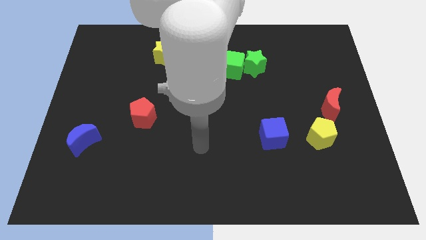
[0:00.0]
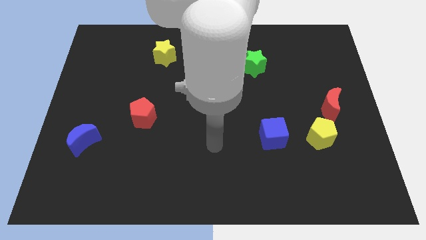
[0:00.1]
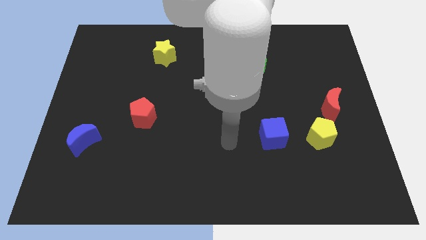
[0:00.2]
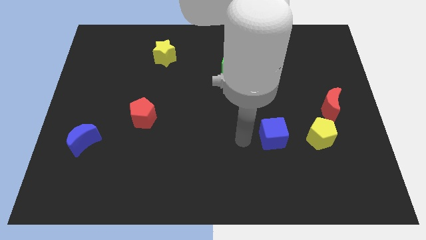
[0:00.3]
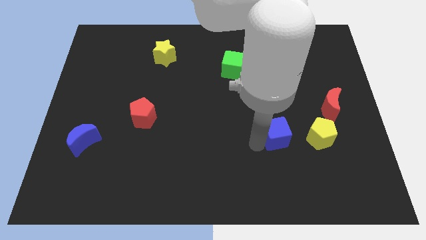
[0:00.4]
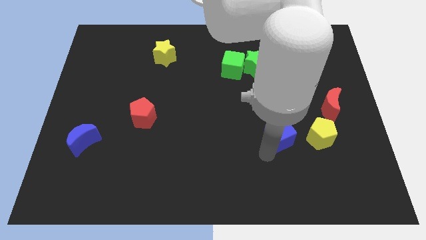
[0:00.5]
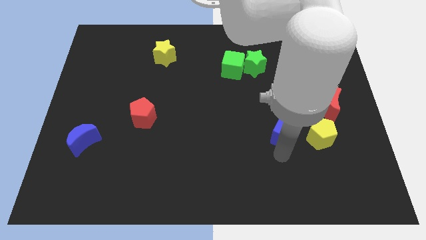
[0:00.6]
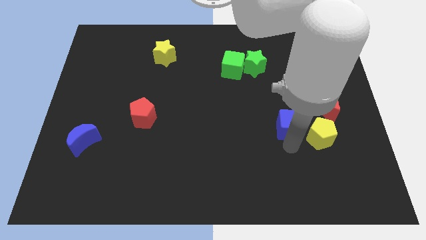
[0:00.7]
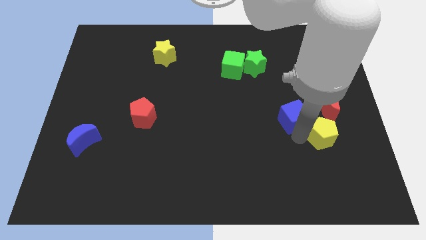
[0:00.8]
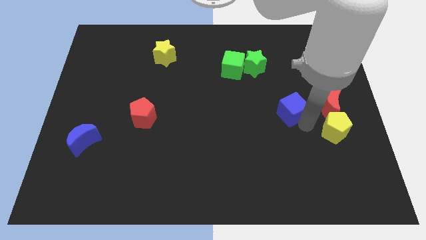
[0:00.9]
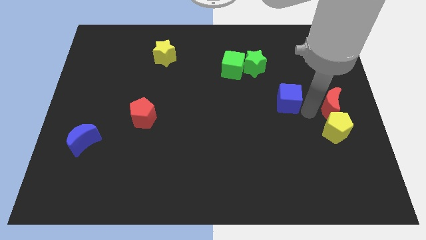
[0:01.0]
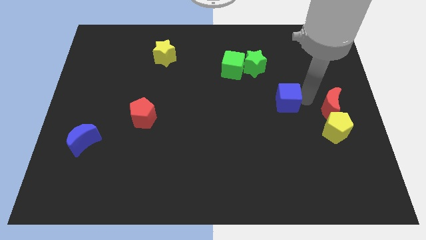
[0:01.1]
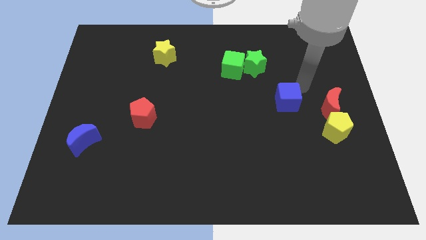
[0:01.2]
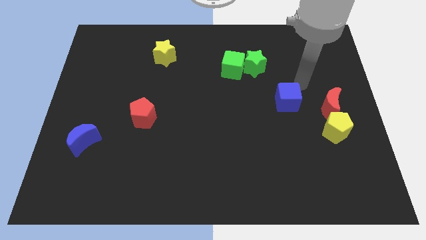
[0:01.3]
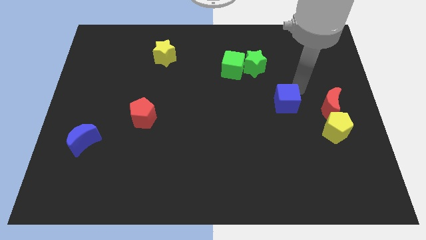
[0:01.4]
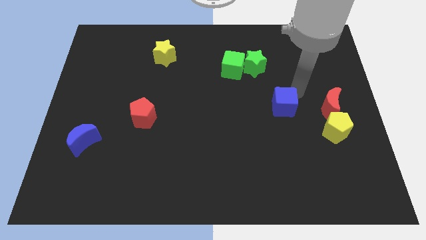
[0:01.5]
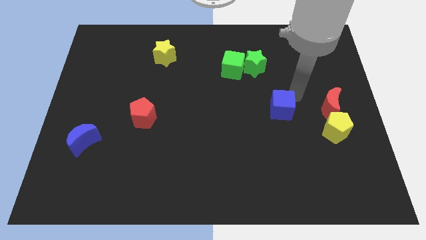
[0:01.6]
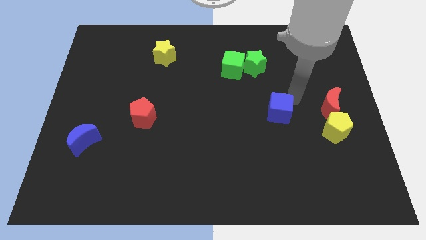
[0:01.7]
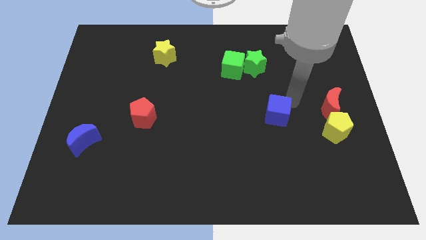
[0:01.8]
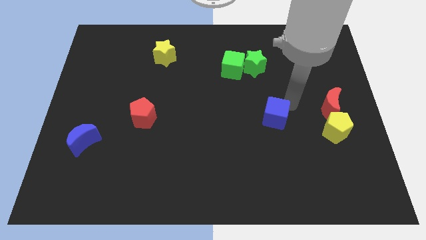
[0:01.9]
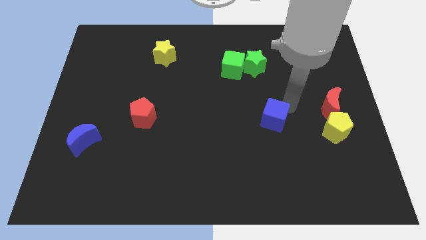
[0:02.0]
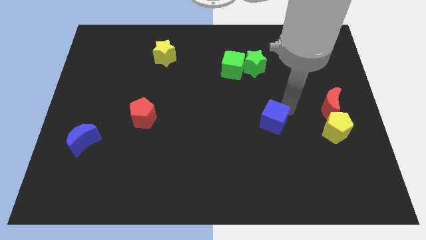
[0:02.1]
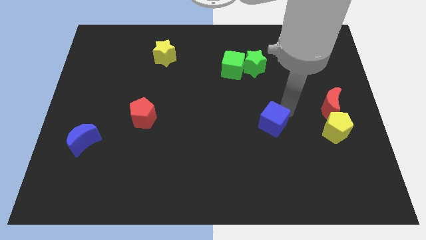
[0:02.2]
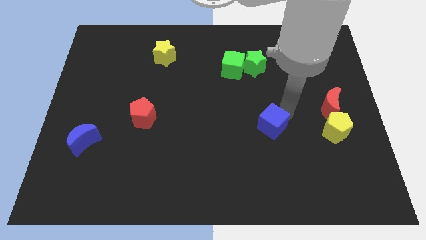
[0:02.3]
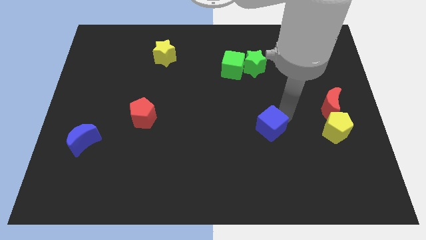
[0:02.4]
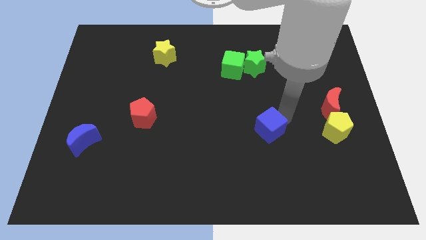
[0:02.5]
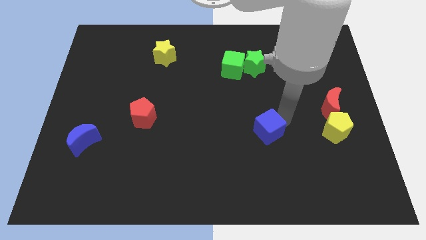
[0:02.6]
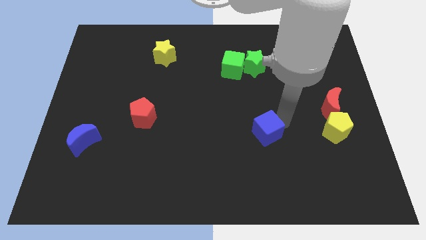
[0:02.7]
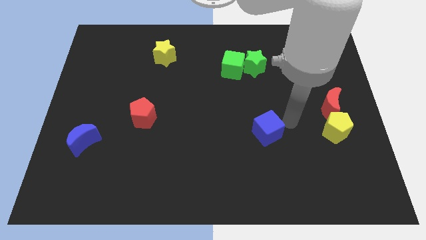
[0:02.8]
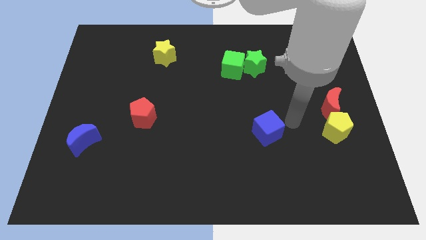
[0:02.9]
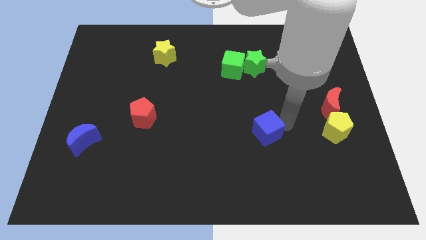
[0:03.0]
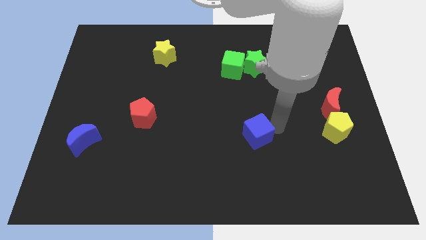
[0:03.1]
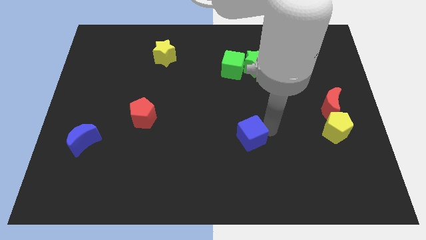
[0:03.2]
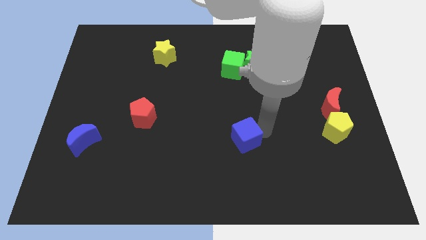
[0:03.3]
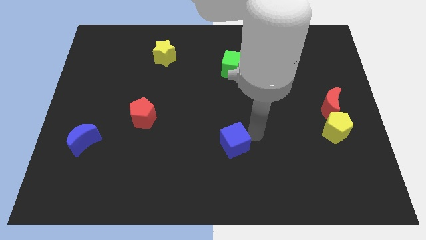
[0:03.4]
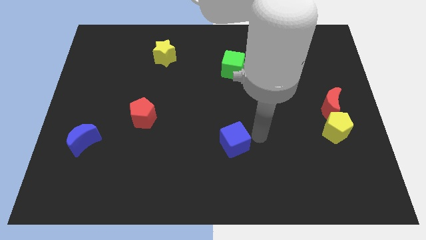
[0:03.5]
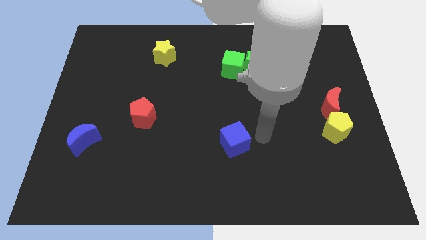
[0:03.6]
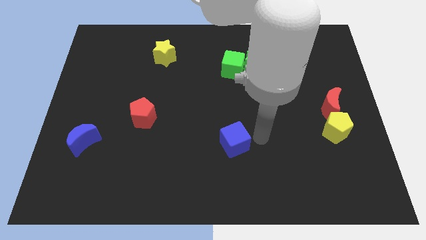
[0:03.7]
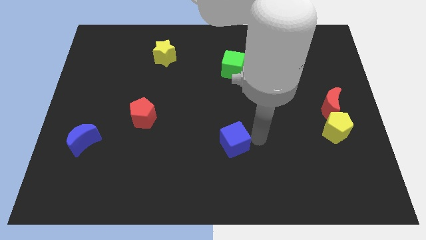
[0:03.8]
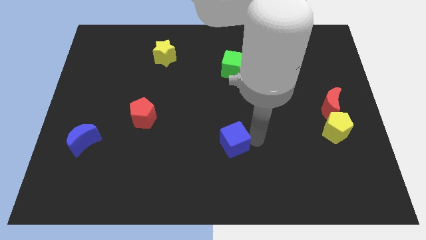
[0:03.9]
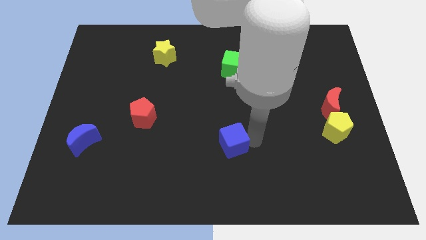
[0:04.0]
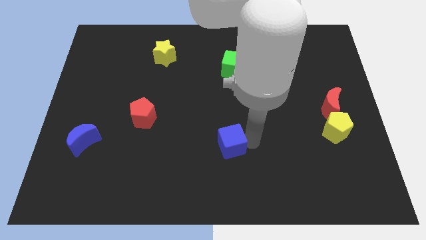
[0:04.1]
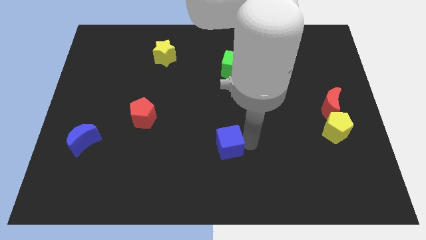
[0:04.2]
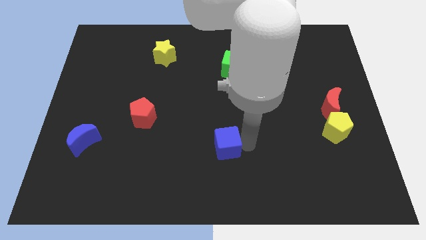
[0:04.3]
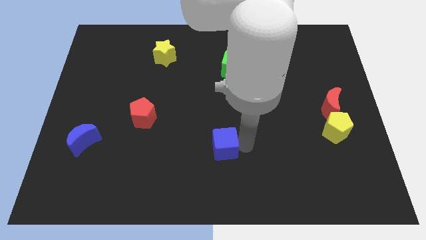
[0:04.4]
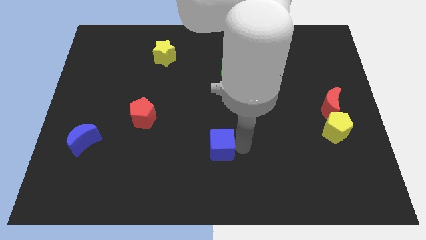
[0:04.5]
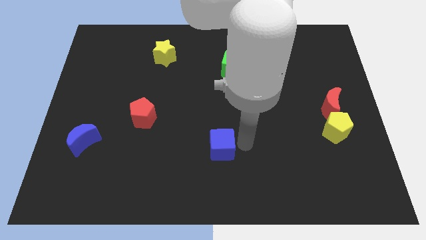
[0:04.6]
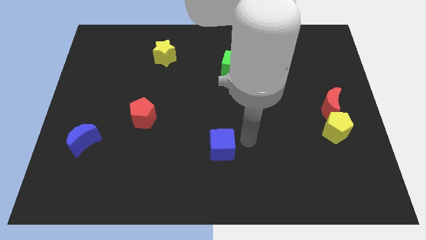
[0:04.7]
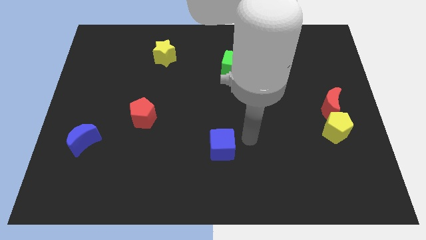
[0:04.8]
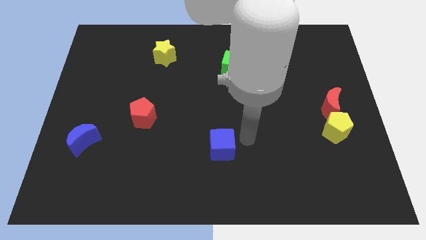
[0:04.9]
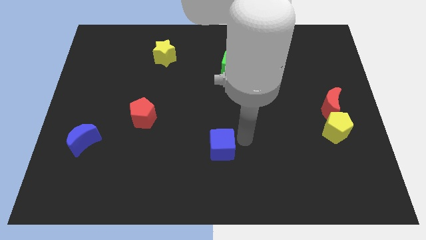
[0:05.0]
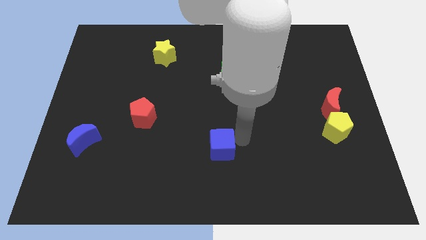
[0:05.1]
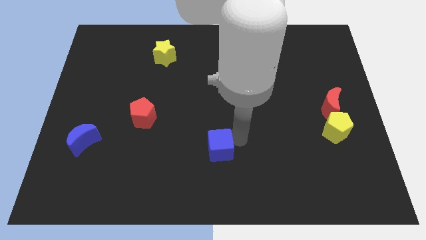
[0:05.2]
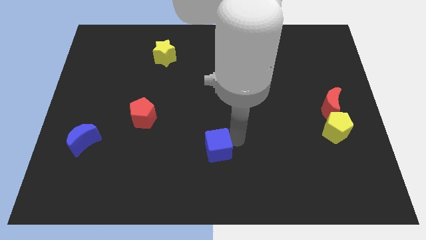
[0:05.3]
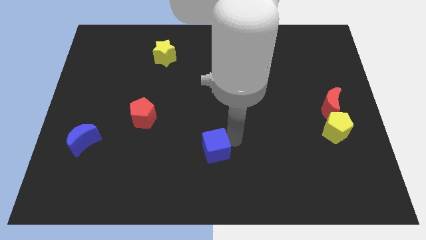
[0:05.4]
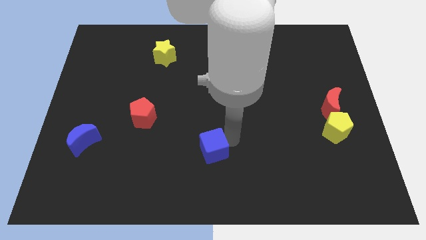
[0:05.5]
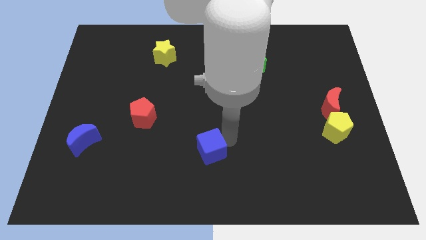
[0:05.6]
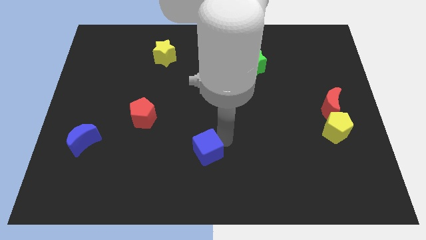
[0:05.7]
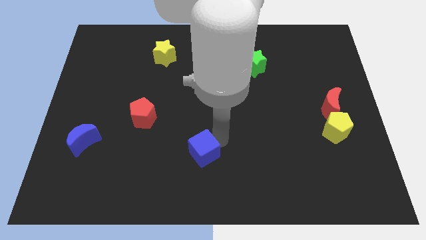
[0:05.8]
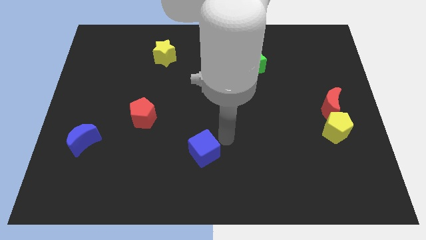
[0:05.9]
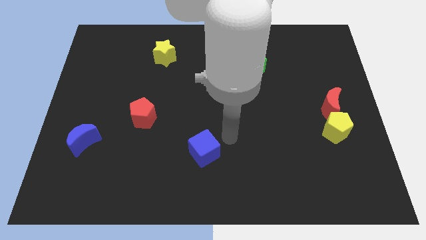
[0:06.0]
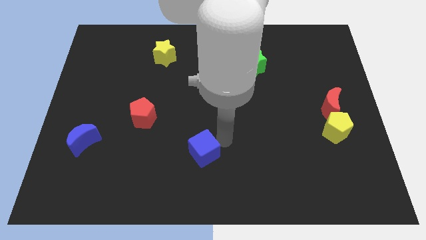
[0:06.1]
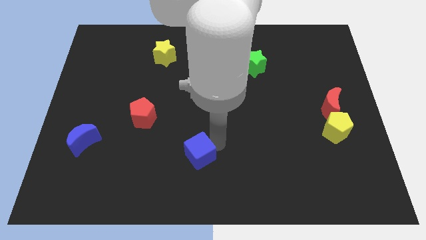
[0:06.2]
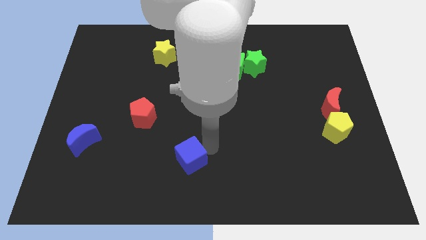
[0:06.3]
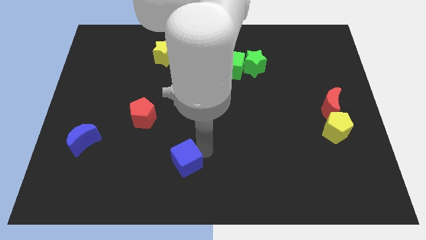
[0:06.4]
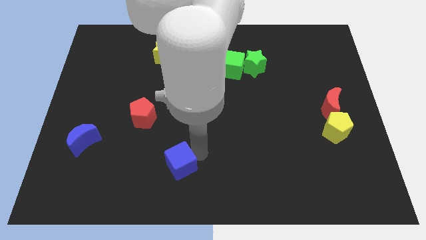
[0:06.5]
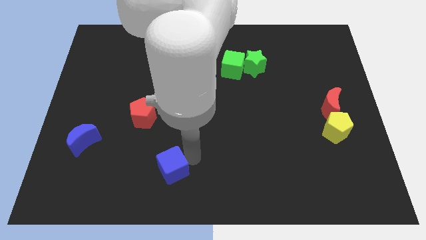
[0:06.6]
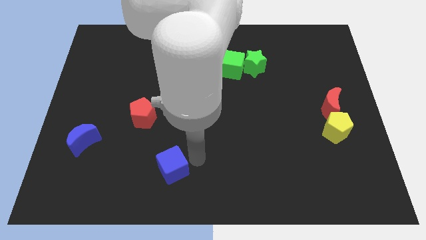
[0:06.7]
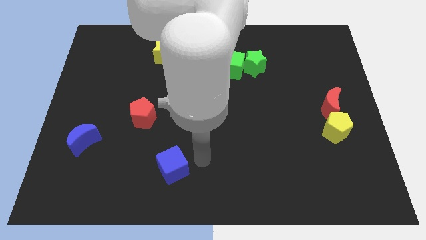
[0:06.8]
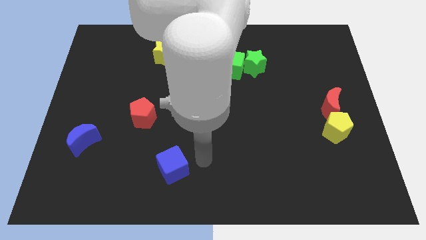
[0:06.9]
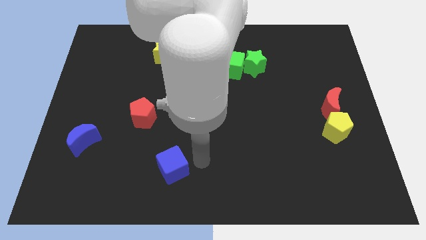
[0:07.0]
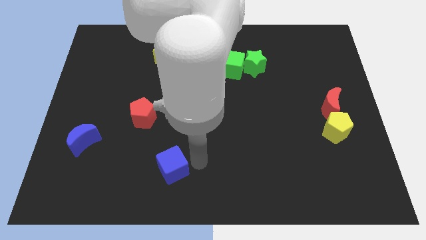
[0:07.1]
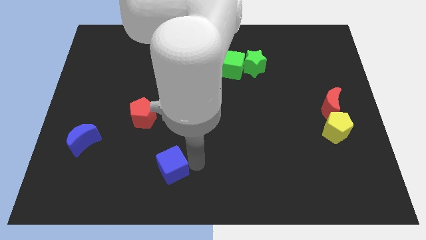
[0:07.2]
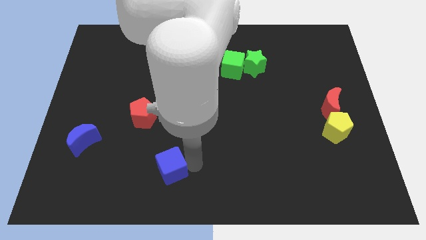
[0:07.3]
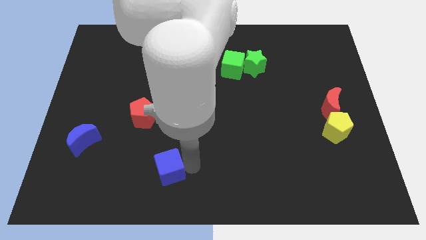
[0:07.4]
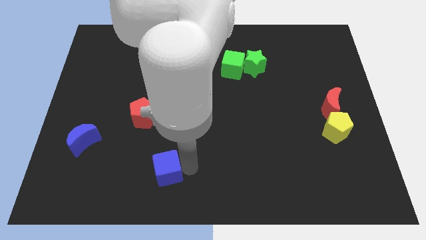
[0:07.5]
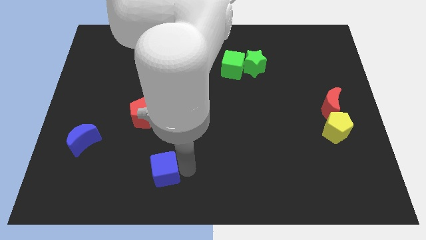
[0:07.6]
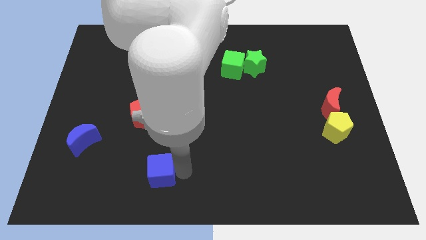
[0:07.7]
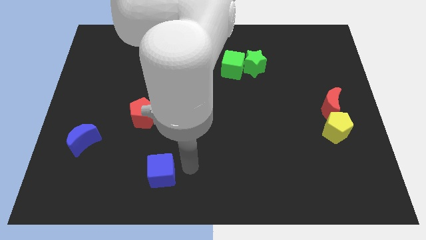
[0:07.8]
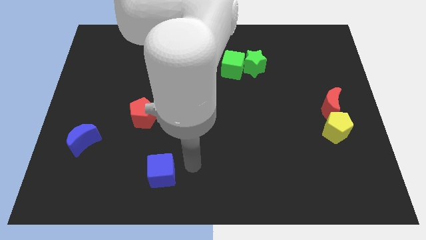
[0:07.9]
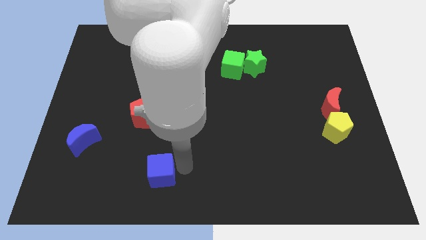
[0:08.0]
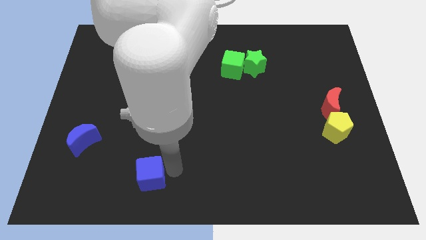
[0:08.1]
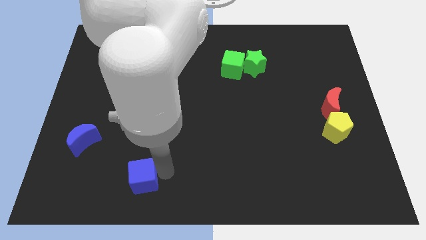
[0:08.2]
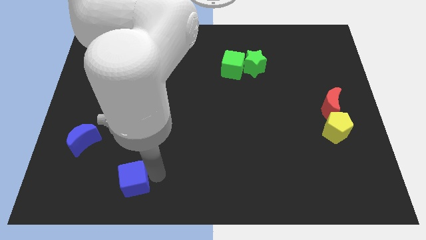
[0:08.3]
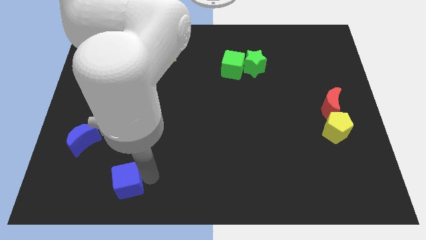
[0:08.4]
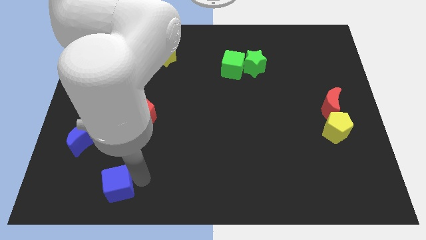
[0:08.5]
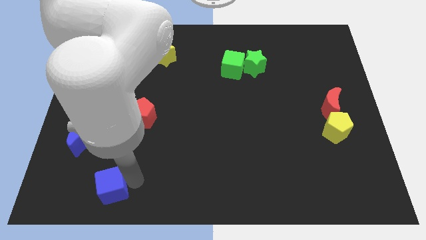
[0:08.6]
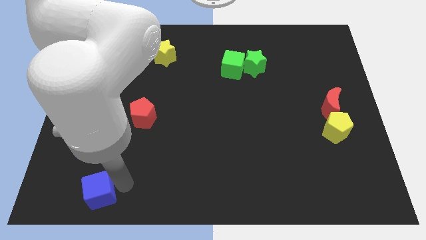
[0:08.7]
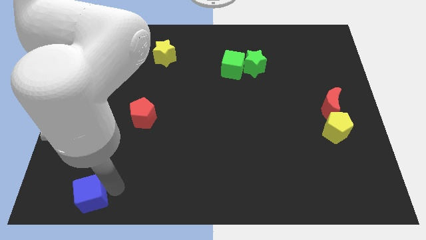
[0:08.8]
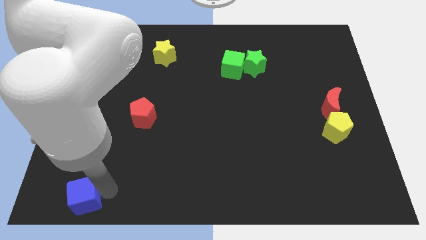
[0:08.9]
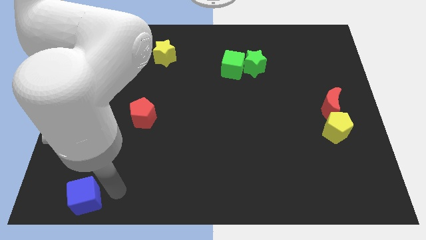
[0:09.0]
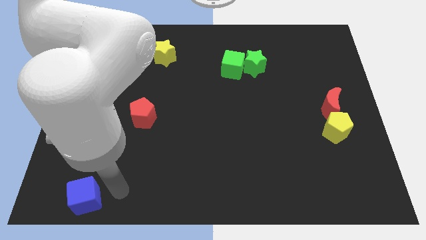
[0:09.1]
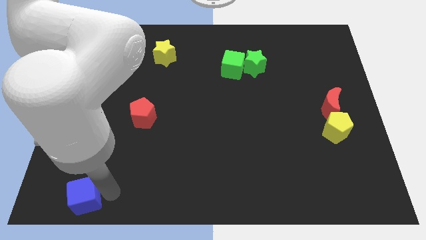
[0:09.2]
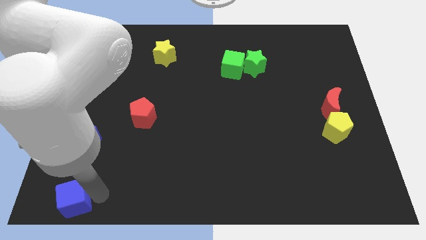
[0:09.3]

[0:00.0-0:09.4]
put the blue cube to the bottom left
